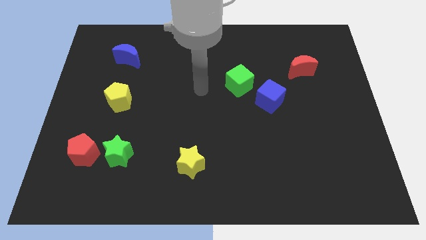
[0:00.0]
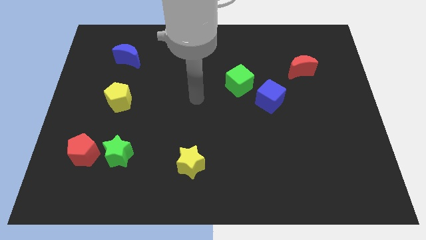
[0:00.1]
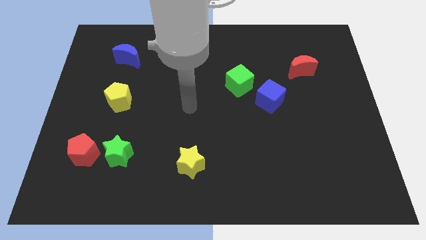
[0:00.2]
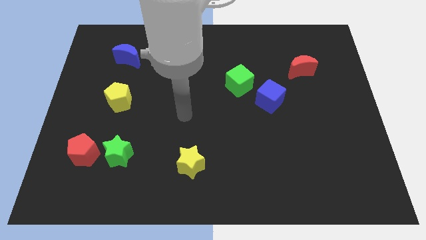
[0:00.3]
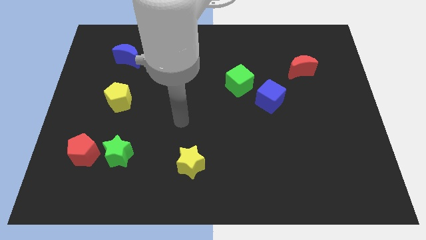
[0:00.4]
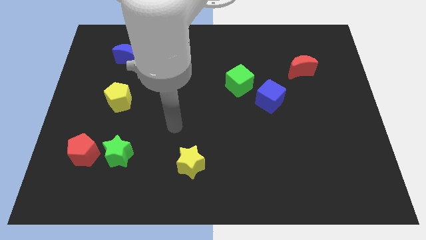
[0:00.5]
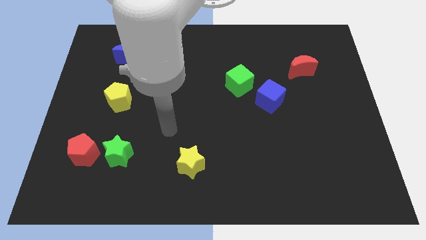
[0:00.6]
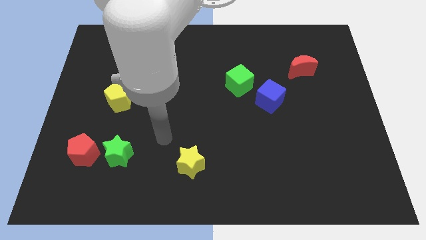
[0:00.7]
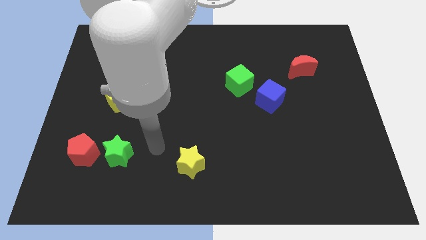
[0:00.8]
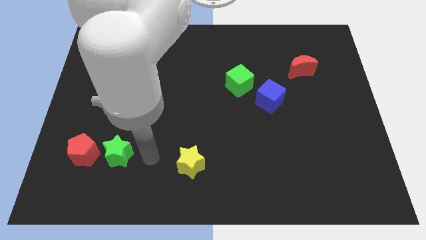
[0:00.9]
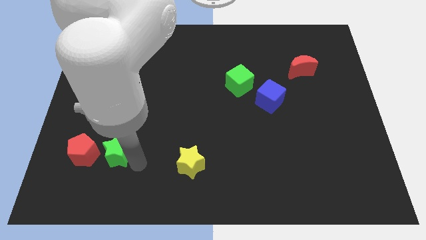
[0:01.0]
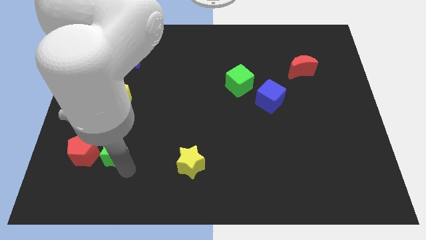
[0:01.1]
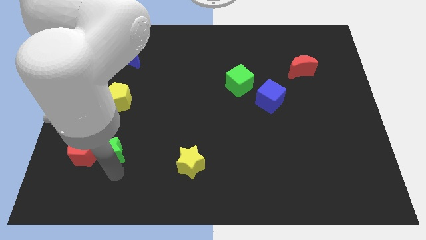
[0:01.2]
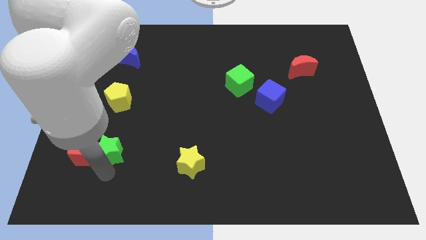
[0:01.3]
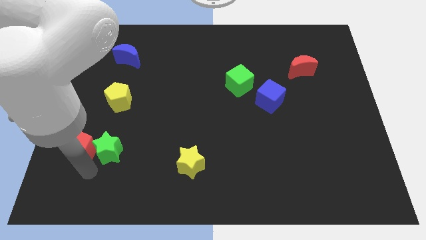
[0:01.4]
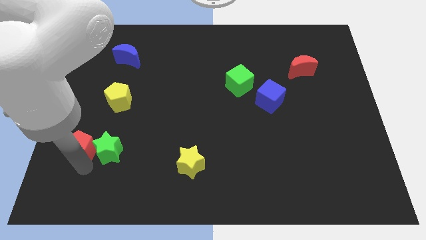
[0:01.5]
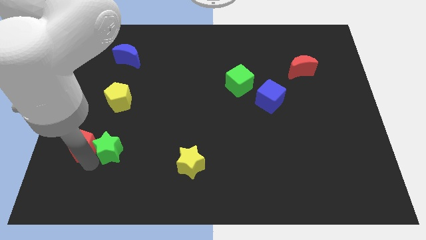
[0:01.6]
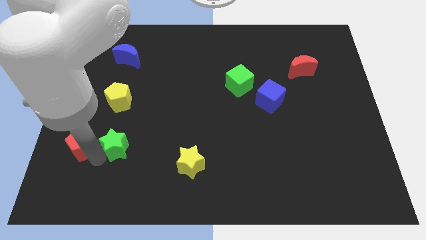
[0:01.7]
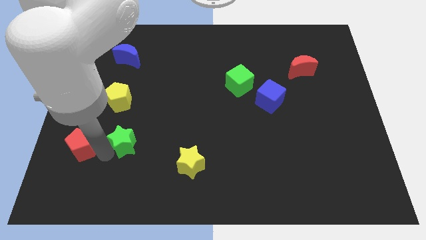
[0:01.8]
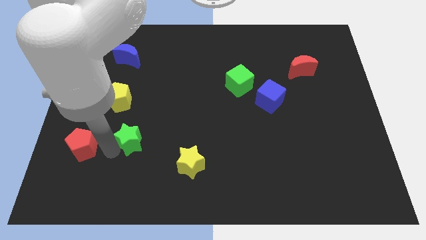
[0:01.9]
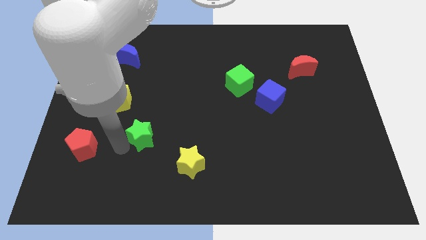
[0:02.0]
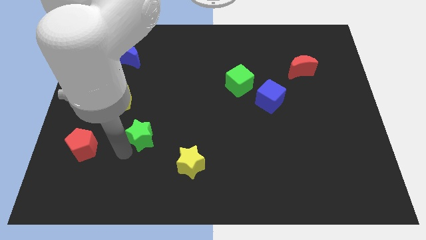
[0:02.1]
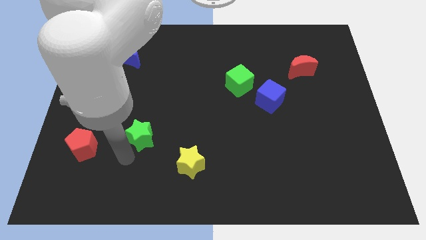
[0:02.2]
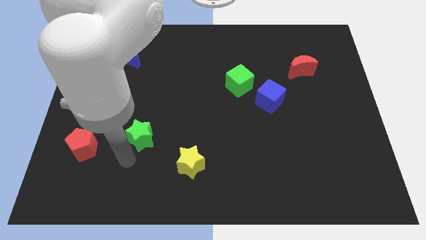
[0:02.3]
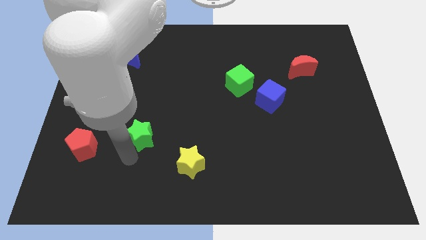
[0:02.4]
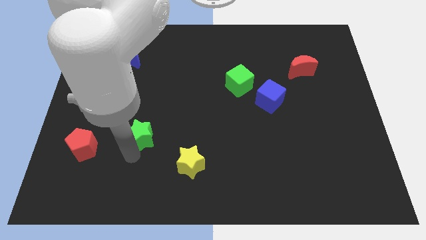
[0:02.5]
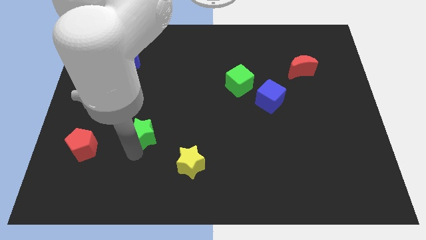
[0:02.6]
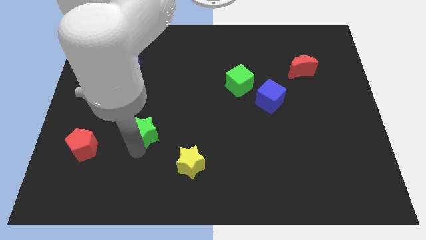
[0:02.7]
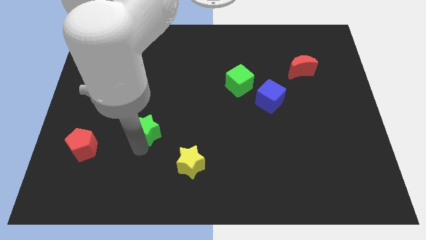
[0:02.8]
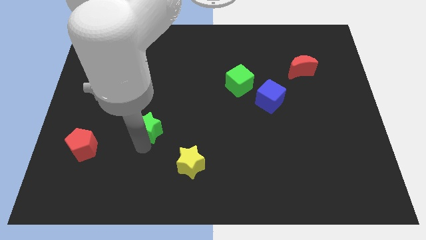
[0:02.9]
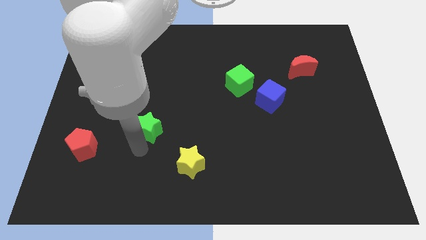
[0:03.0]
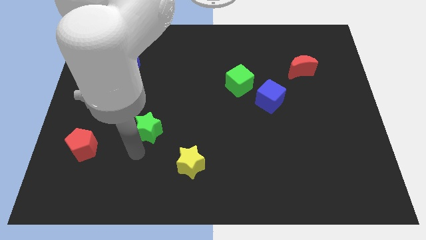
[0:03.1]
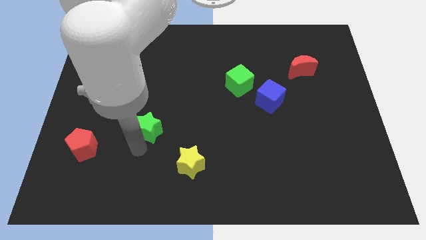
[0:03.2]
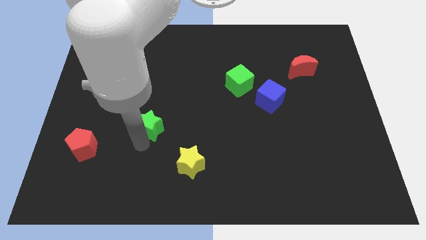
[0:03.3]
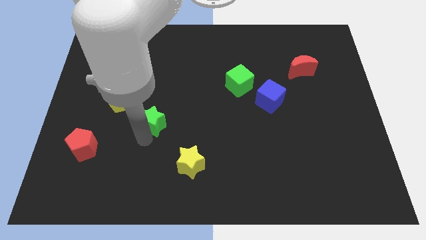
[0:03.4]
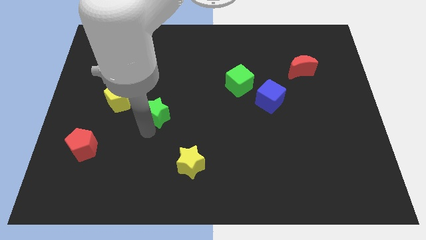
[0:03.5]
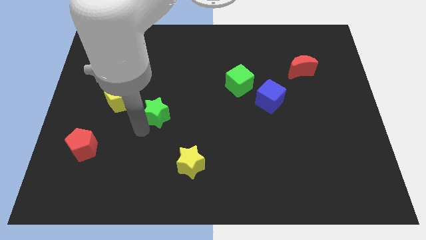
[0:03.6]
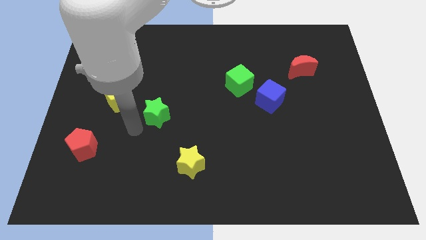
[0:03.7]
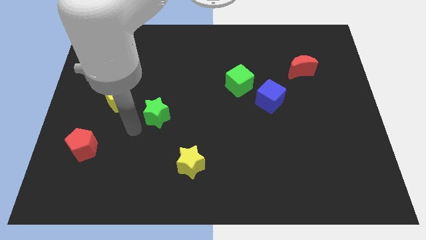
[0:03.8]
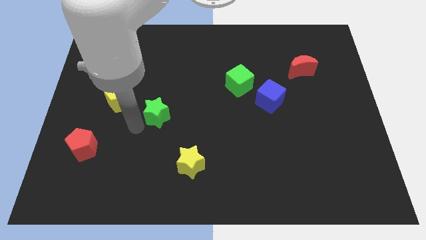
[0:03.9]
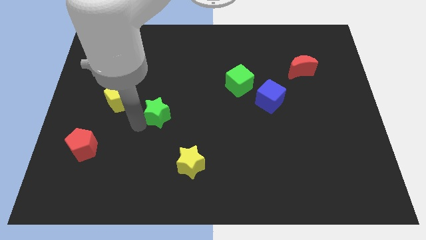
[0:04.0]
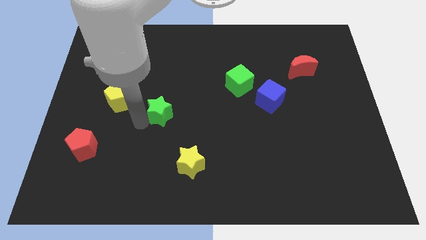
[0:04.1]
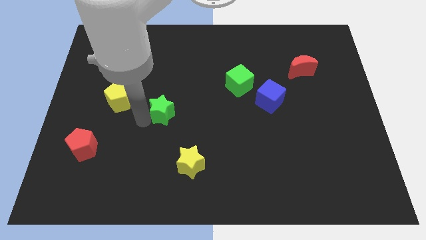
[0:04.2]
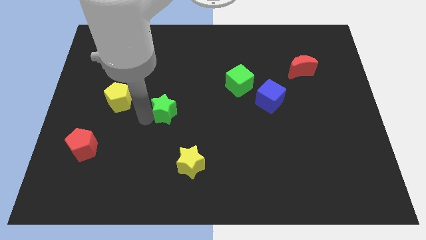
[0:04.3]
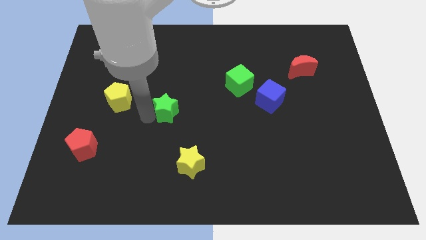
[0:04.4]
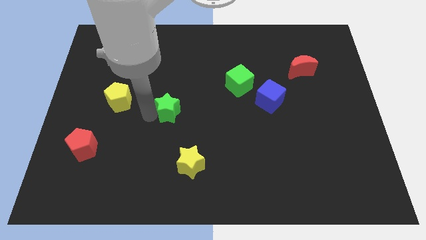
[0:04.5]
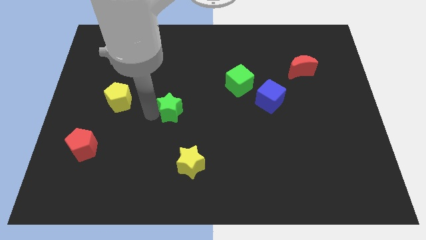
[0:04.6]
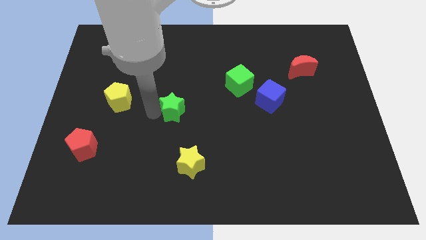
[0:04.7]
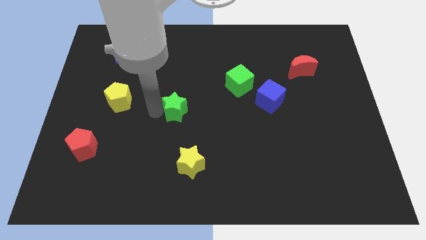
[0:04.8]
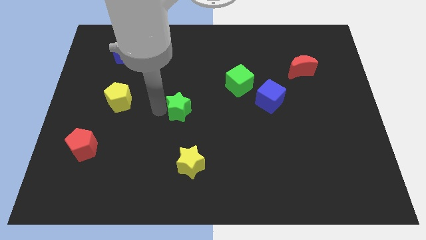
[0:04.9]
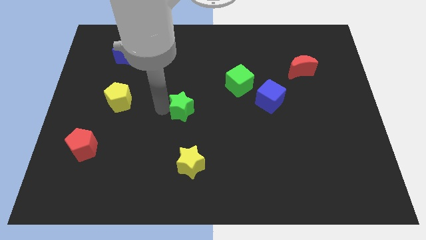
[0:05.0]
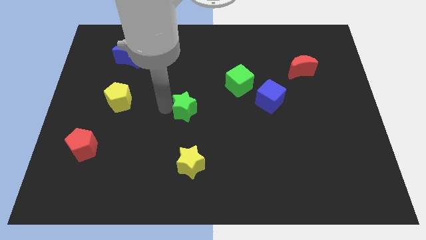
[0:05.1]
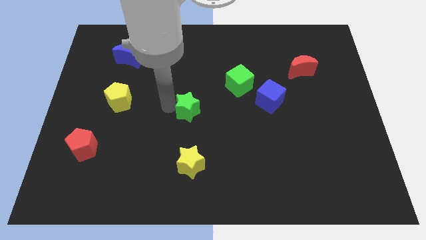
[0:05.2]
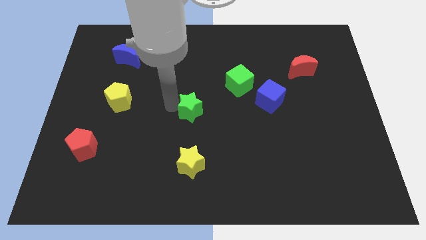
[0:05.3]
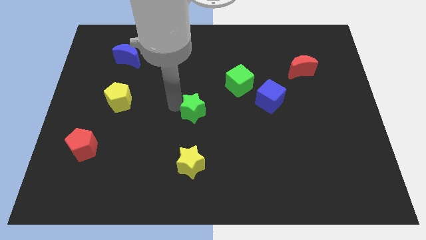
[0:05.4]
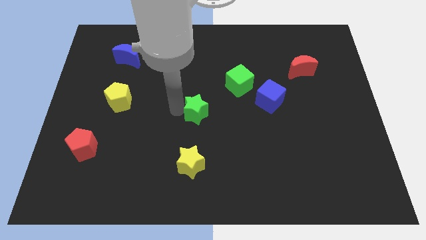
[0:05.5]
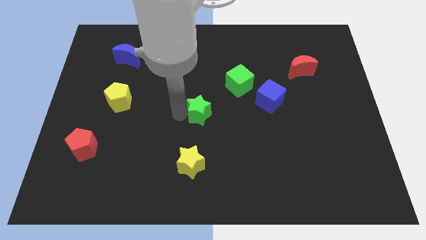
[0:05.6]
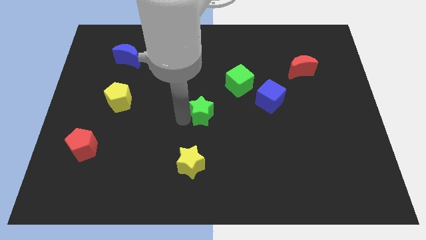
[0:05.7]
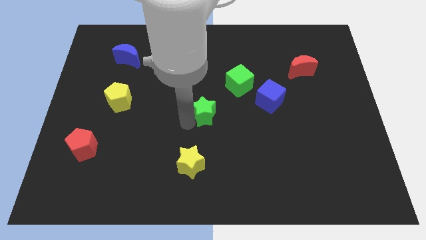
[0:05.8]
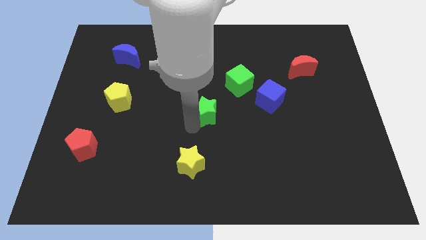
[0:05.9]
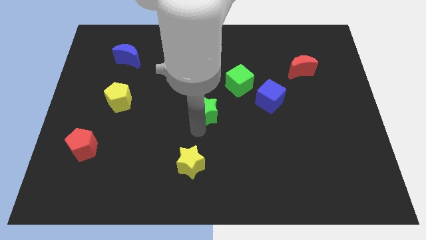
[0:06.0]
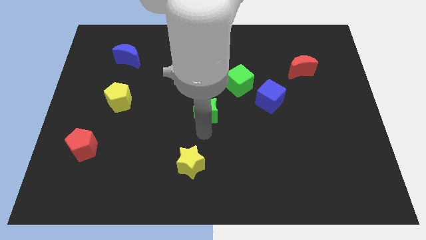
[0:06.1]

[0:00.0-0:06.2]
slide the green star upwards and to the right diagonally

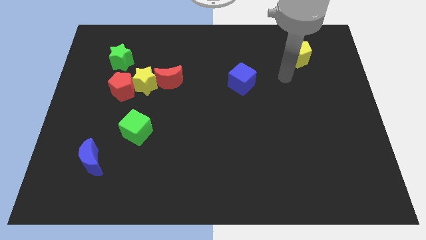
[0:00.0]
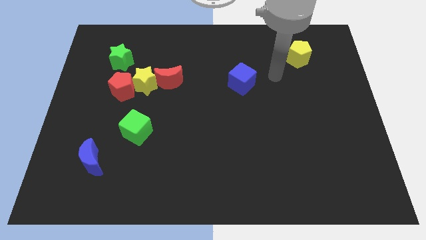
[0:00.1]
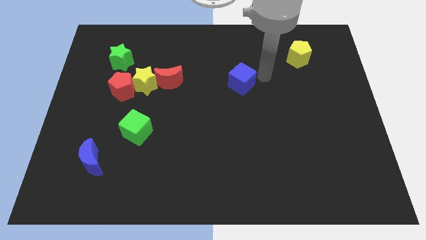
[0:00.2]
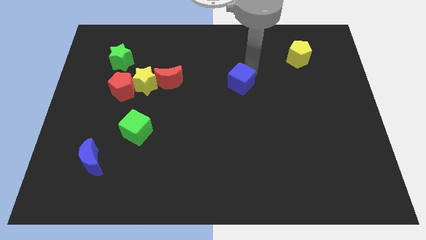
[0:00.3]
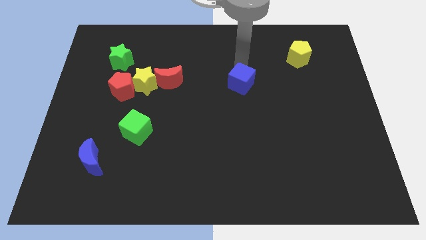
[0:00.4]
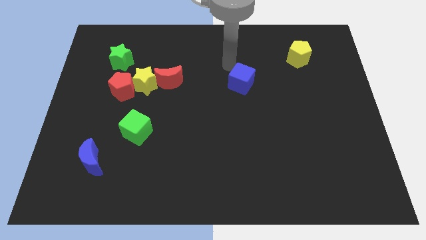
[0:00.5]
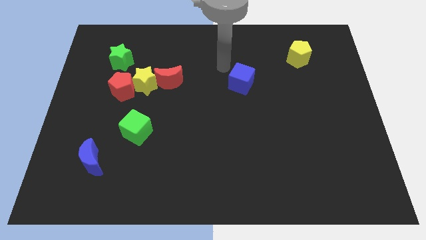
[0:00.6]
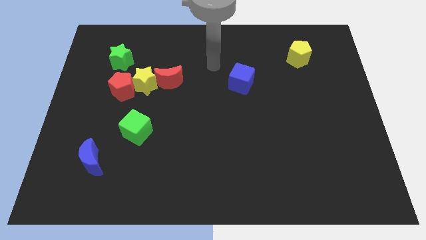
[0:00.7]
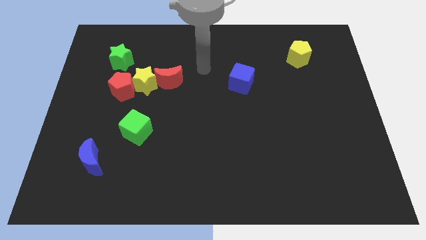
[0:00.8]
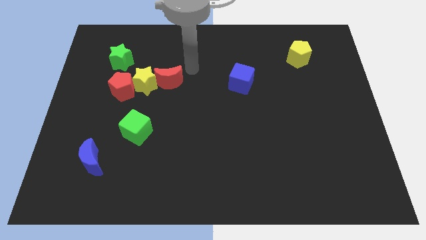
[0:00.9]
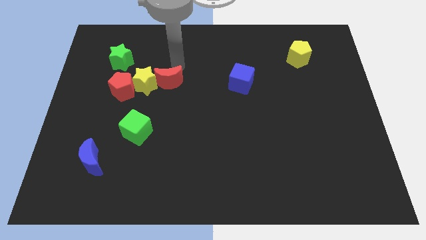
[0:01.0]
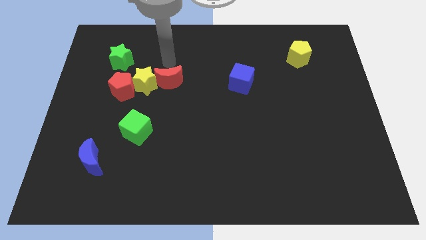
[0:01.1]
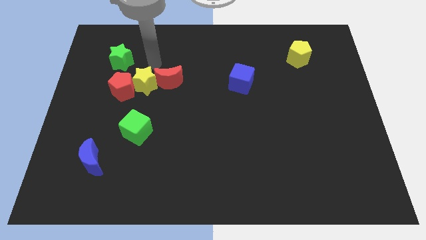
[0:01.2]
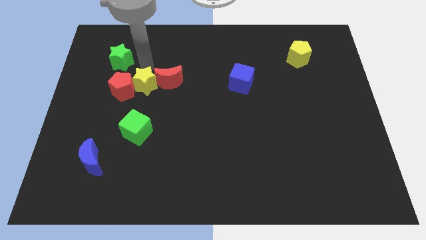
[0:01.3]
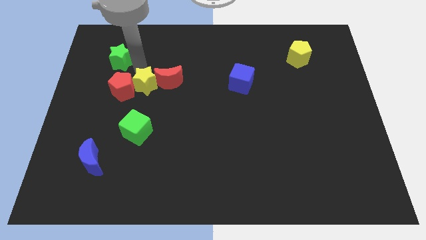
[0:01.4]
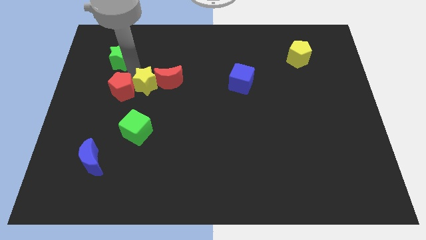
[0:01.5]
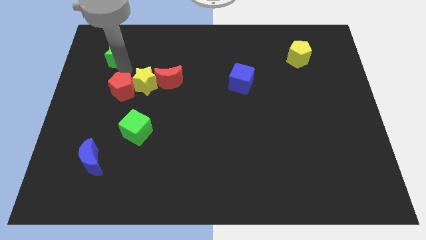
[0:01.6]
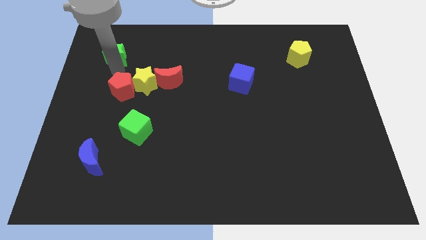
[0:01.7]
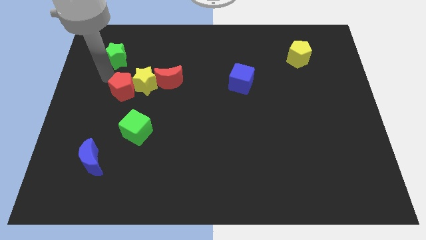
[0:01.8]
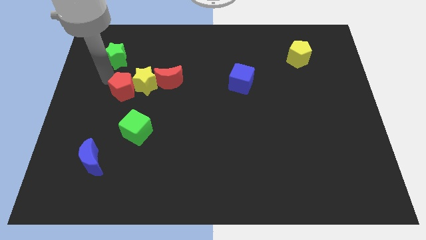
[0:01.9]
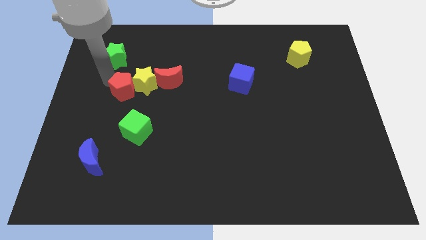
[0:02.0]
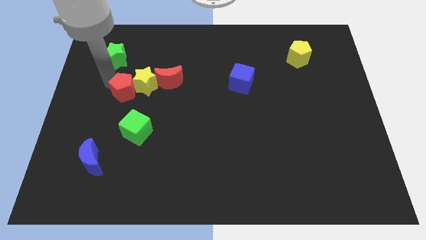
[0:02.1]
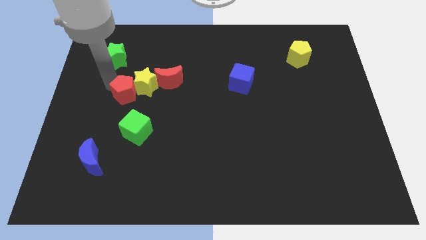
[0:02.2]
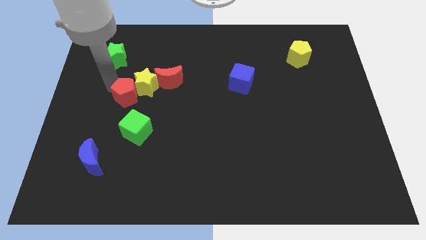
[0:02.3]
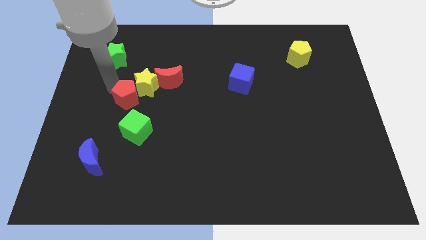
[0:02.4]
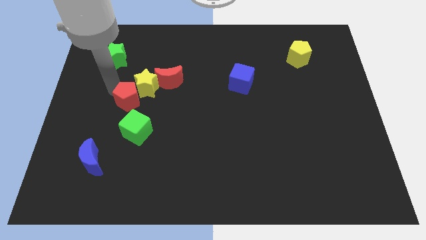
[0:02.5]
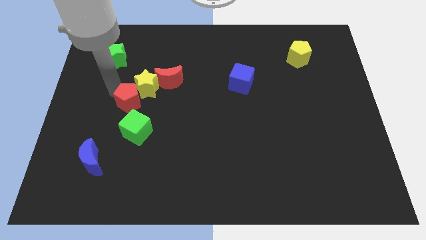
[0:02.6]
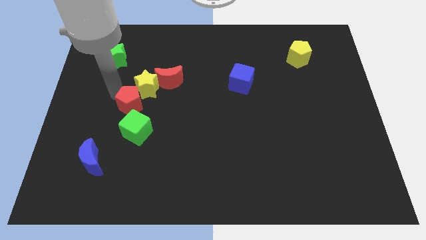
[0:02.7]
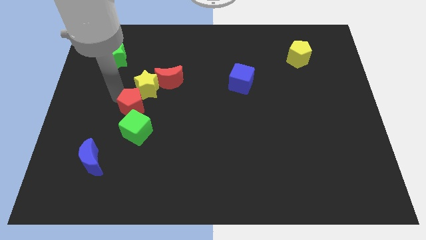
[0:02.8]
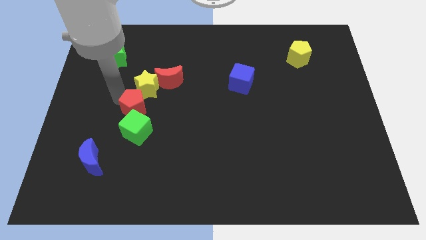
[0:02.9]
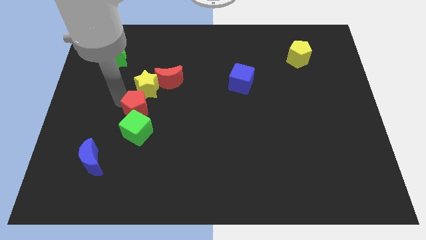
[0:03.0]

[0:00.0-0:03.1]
push the red pentagon a little down and to the right diagonally
